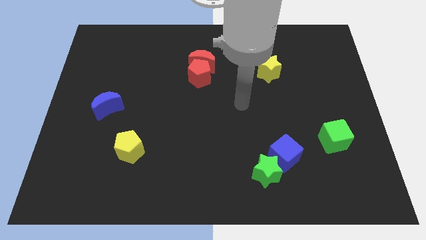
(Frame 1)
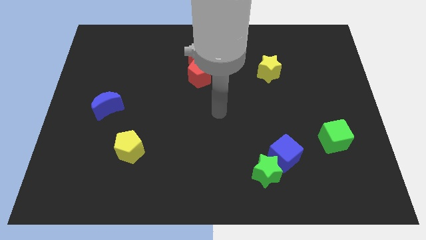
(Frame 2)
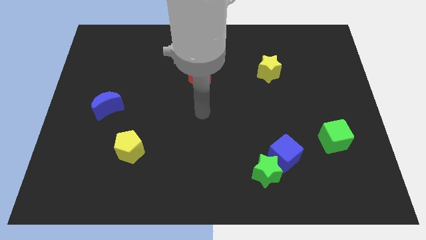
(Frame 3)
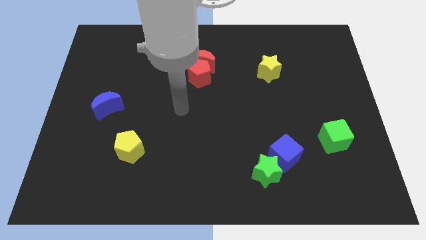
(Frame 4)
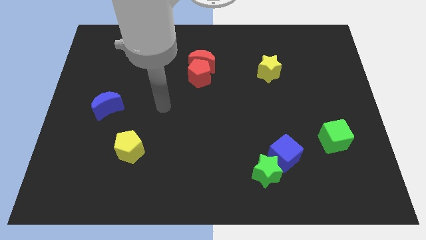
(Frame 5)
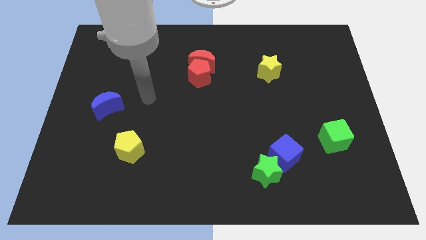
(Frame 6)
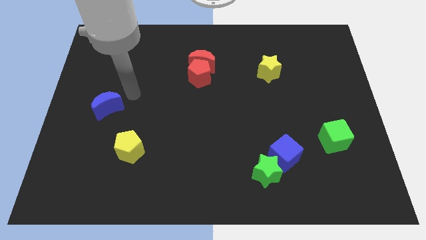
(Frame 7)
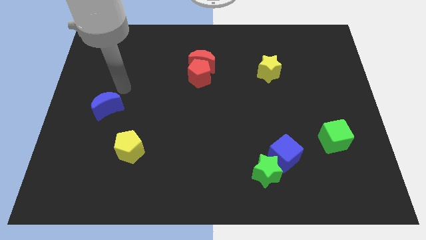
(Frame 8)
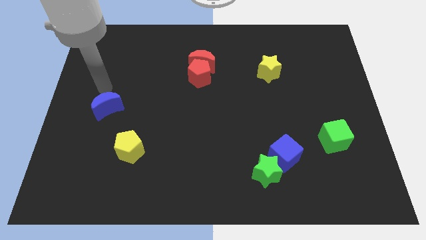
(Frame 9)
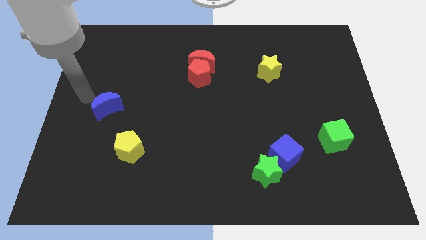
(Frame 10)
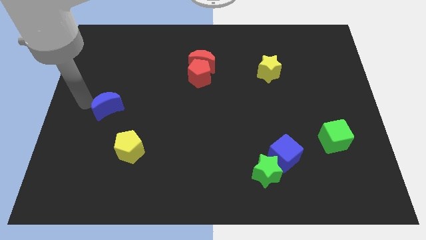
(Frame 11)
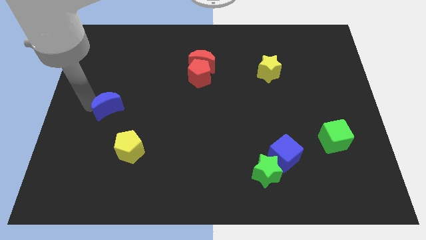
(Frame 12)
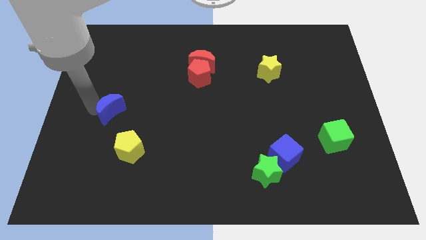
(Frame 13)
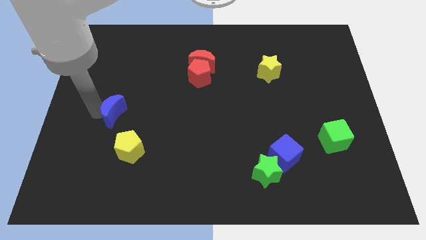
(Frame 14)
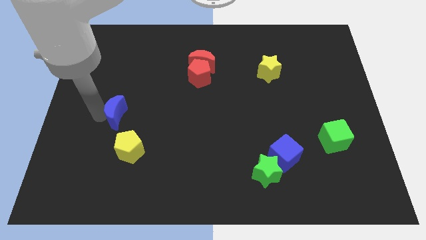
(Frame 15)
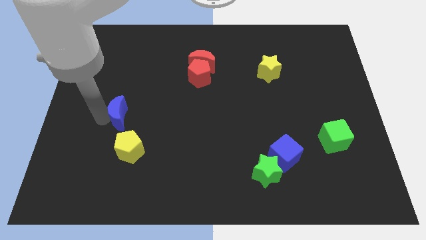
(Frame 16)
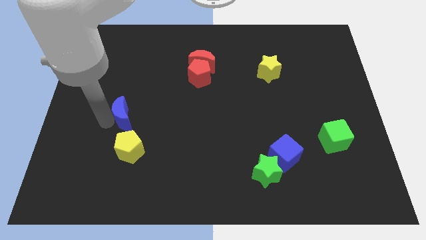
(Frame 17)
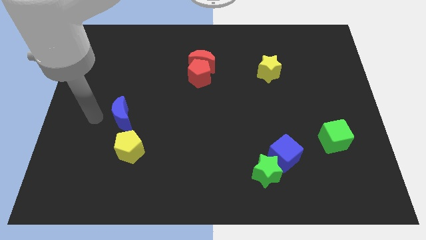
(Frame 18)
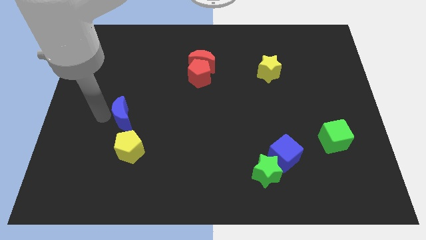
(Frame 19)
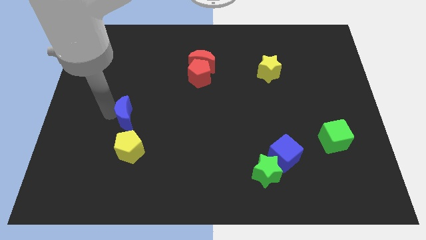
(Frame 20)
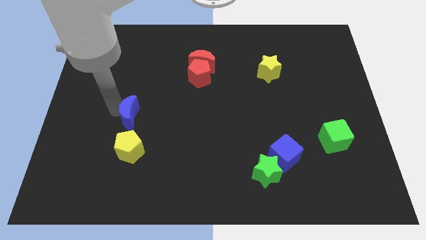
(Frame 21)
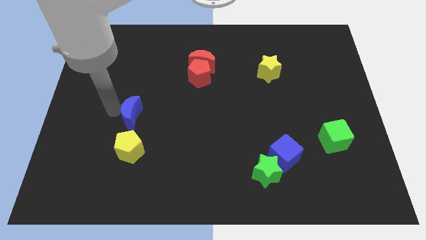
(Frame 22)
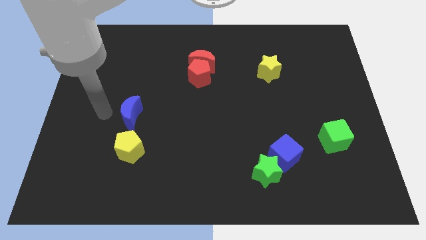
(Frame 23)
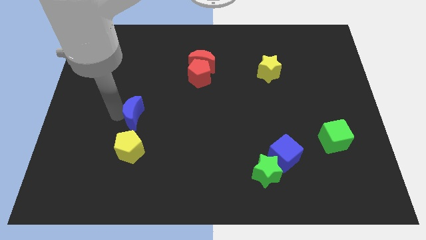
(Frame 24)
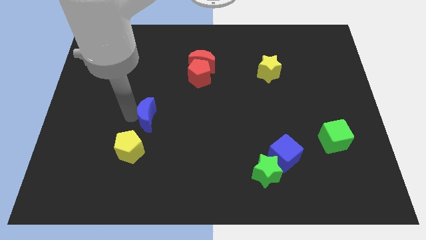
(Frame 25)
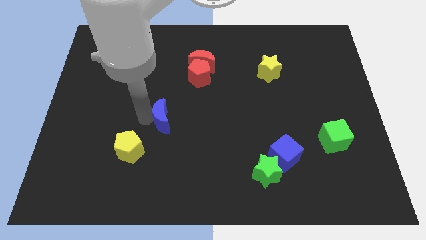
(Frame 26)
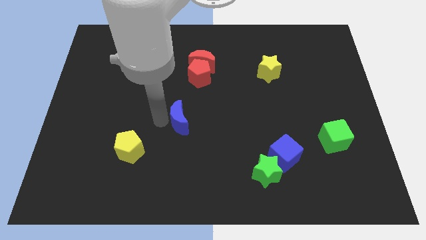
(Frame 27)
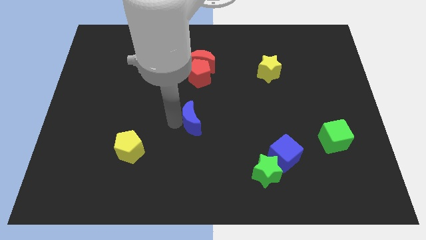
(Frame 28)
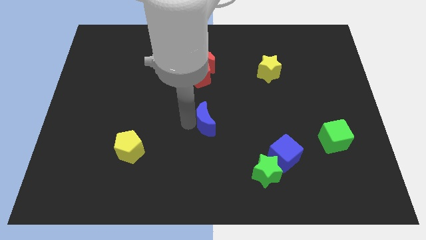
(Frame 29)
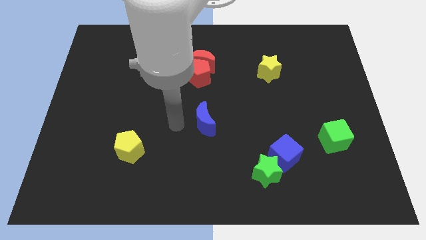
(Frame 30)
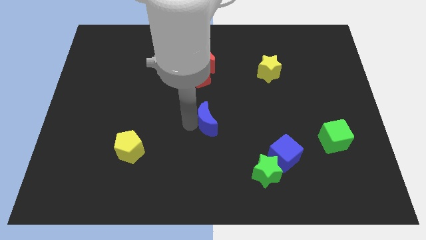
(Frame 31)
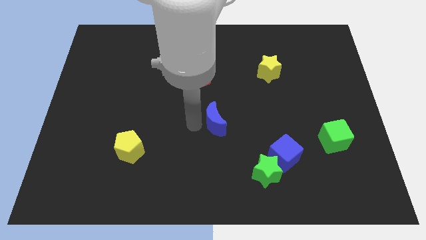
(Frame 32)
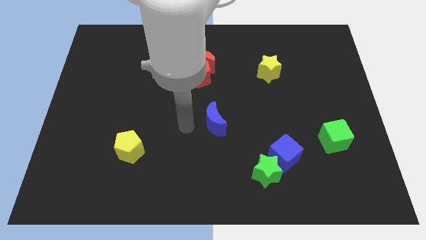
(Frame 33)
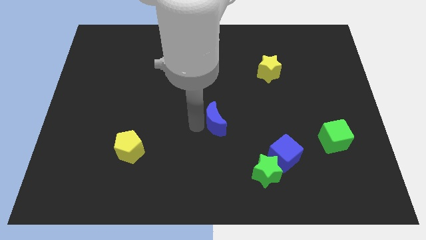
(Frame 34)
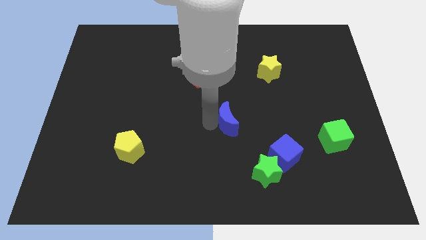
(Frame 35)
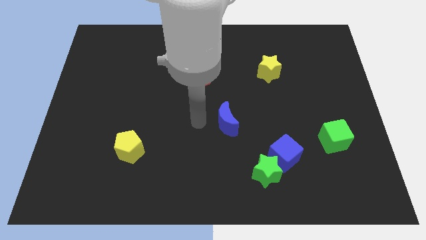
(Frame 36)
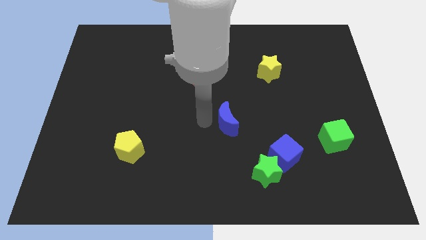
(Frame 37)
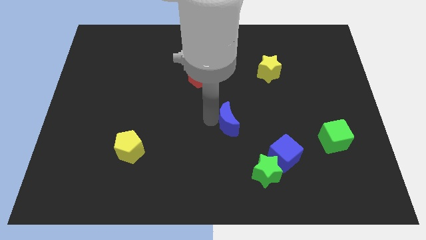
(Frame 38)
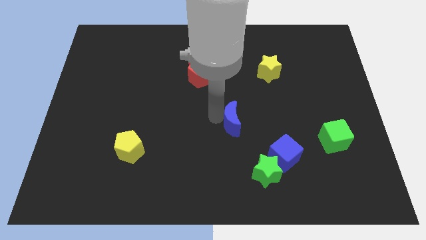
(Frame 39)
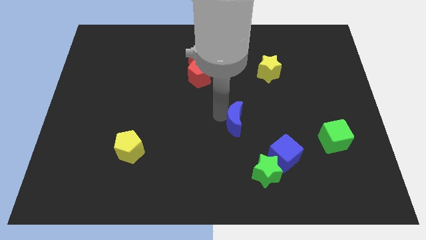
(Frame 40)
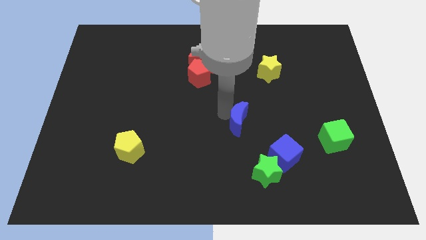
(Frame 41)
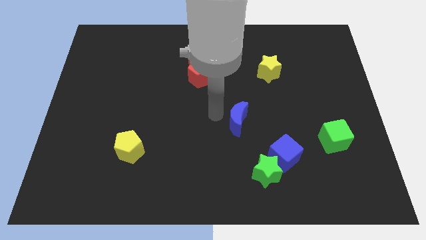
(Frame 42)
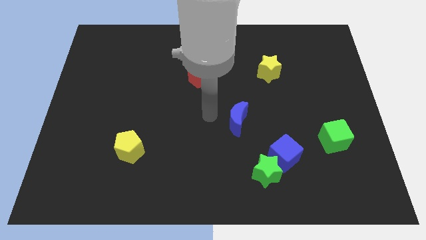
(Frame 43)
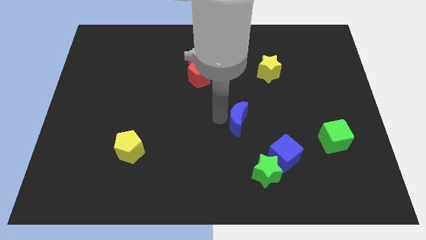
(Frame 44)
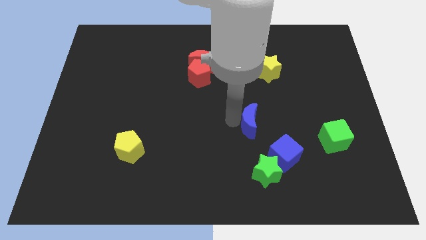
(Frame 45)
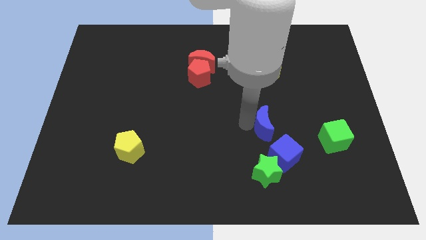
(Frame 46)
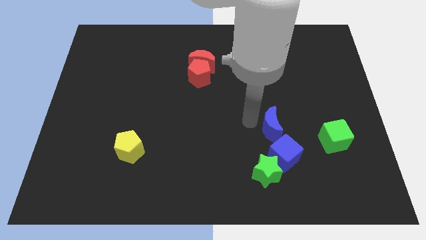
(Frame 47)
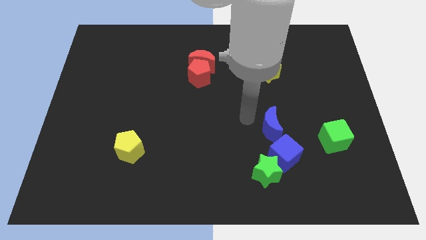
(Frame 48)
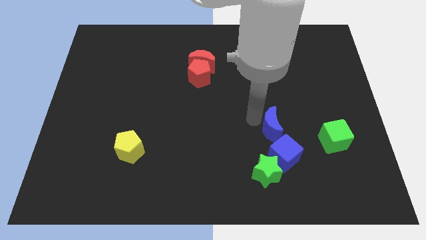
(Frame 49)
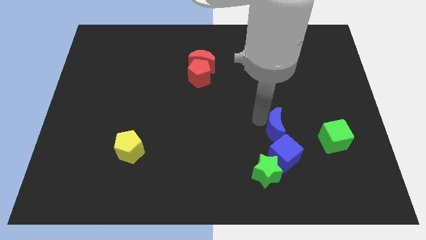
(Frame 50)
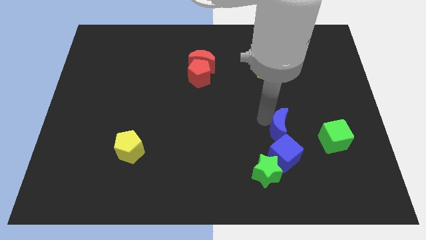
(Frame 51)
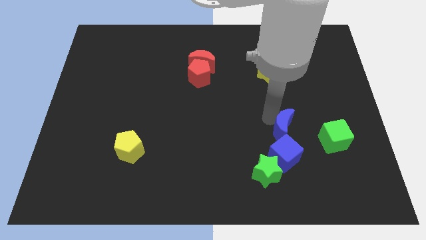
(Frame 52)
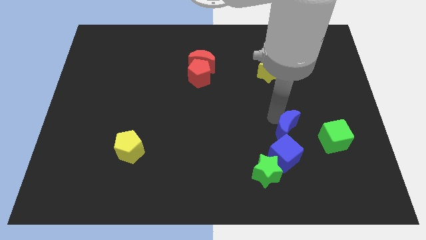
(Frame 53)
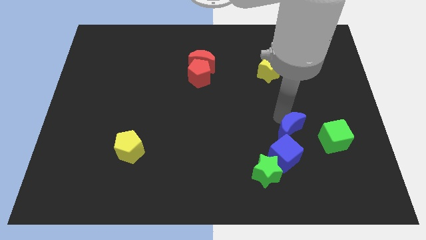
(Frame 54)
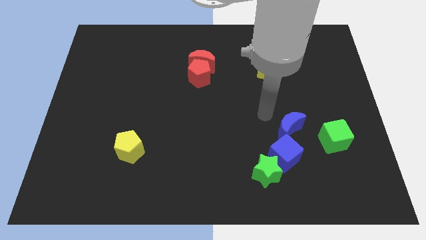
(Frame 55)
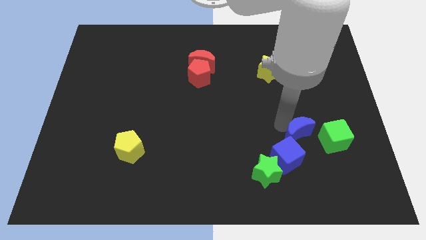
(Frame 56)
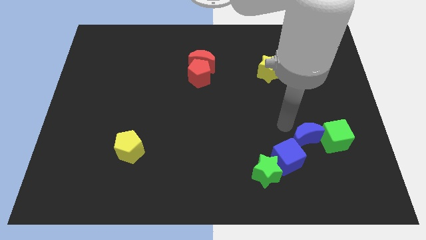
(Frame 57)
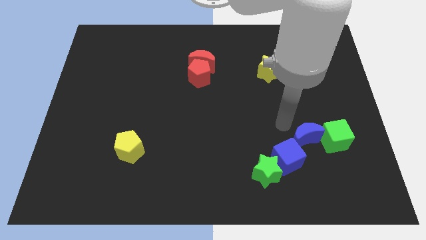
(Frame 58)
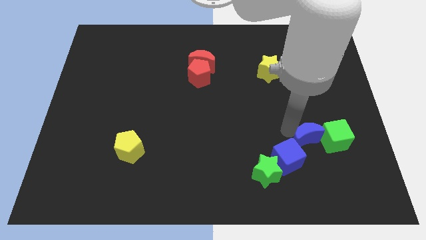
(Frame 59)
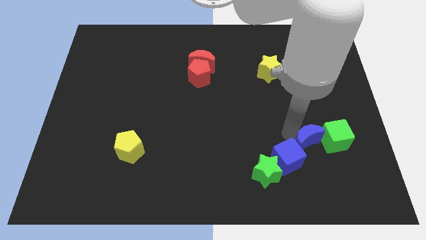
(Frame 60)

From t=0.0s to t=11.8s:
put the blue moon just right of the blue cube

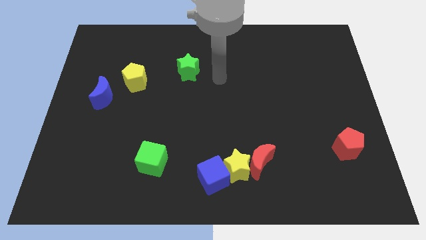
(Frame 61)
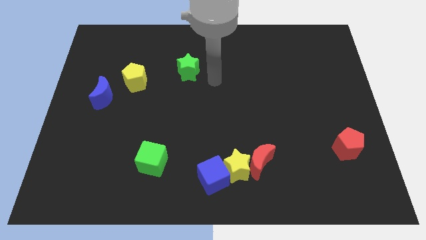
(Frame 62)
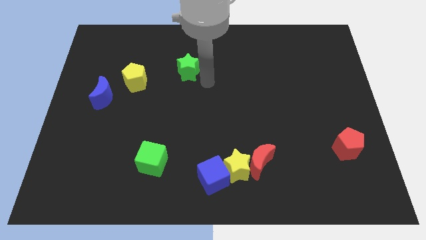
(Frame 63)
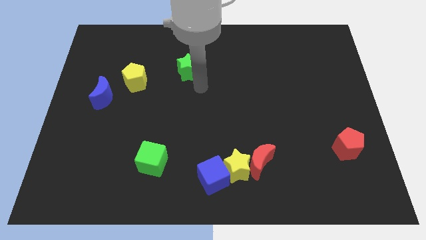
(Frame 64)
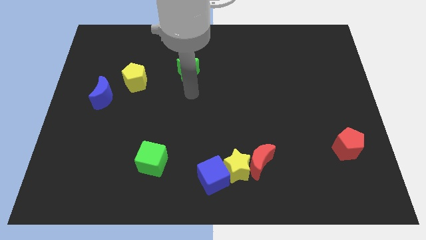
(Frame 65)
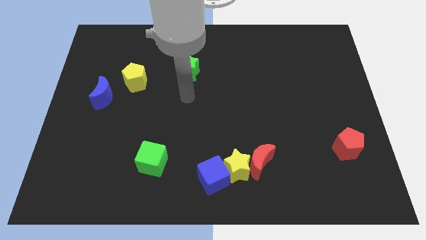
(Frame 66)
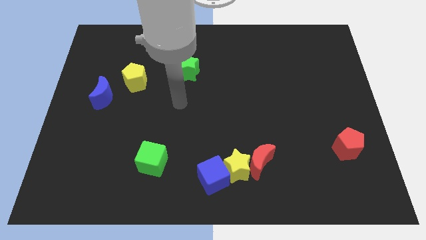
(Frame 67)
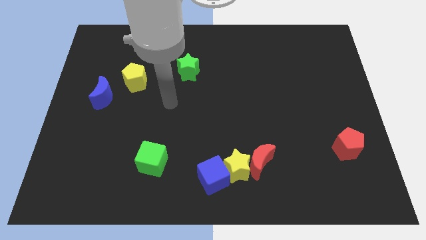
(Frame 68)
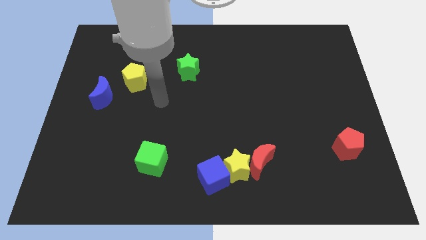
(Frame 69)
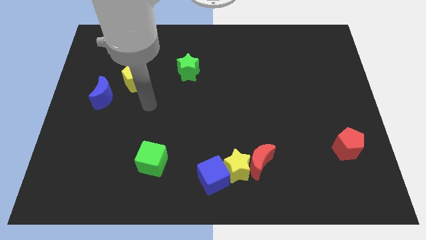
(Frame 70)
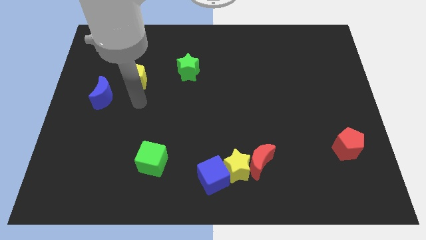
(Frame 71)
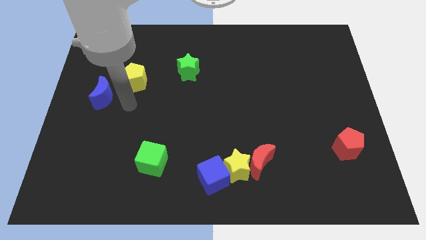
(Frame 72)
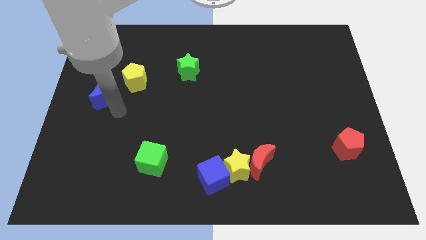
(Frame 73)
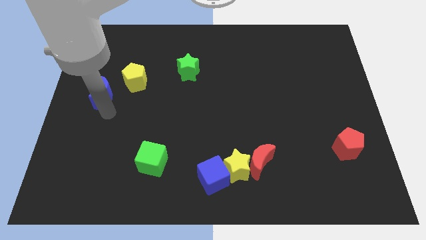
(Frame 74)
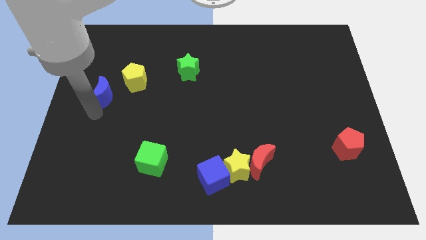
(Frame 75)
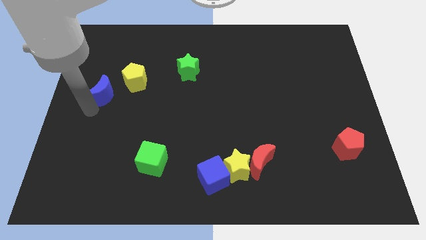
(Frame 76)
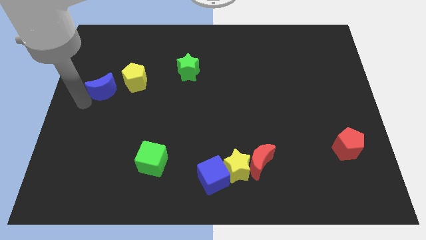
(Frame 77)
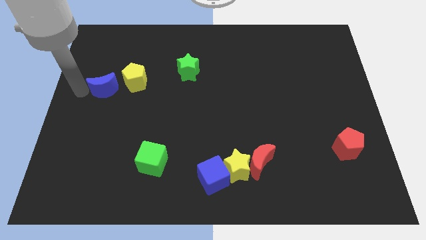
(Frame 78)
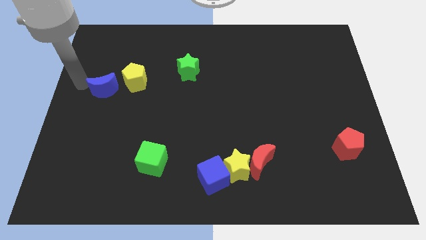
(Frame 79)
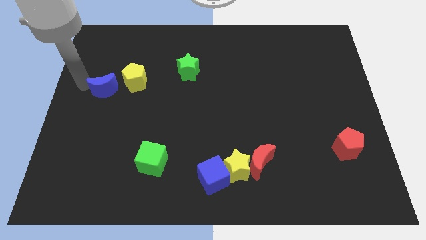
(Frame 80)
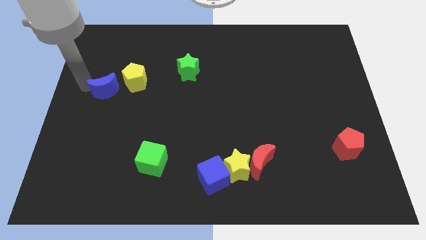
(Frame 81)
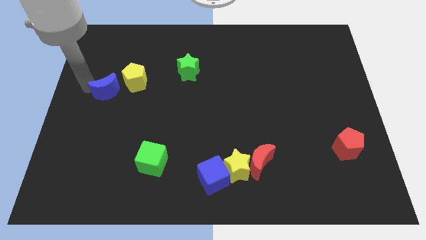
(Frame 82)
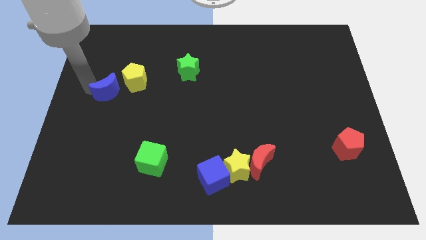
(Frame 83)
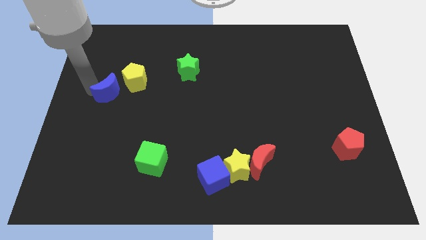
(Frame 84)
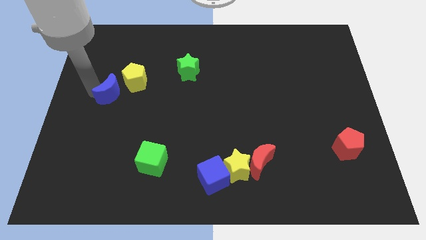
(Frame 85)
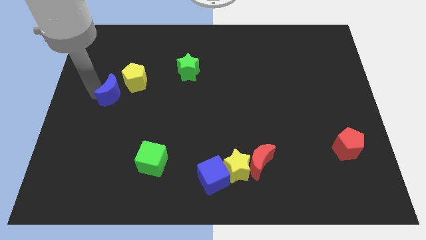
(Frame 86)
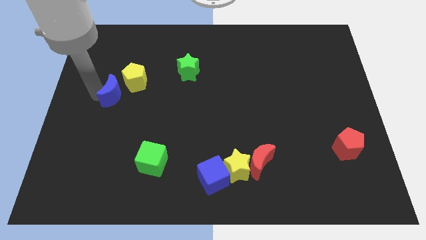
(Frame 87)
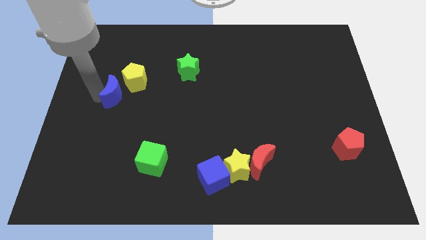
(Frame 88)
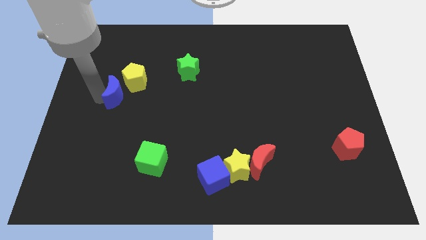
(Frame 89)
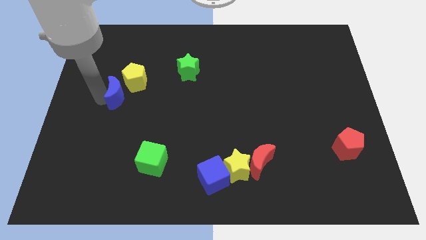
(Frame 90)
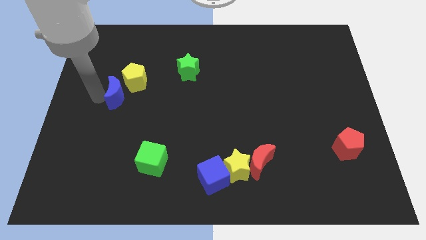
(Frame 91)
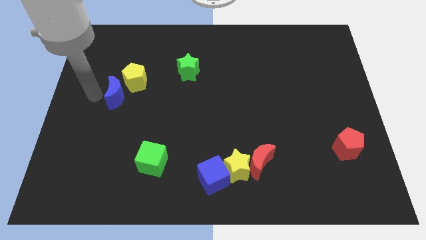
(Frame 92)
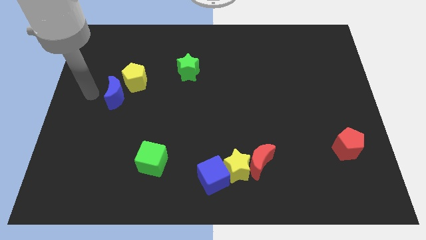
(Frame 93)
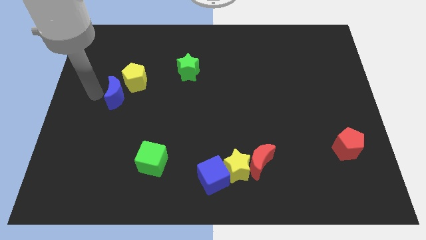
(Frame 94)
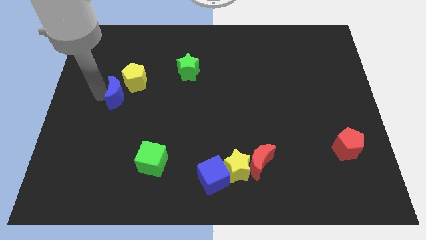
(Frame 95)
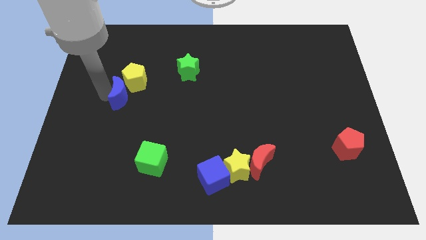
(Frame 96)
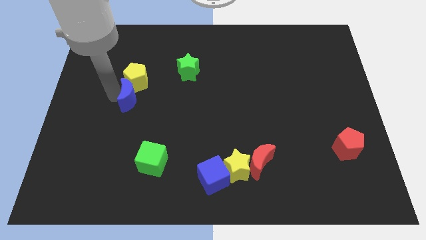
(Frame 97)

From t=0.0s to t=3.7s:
put the blue moon to the bottom right side of the yellow pentagon
